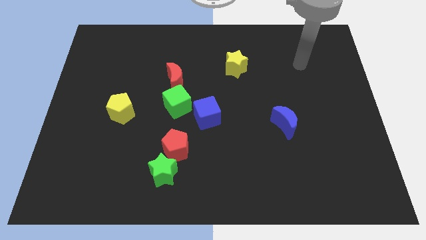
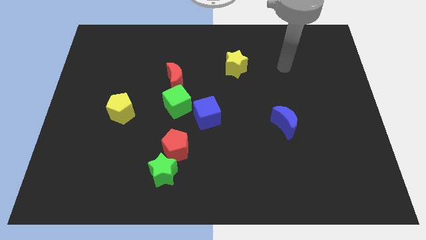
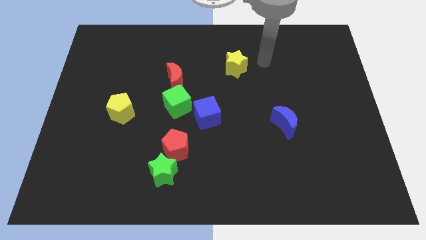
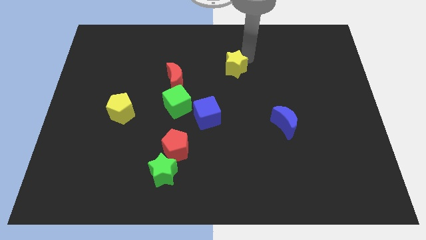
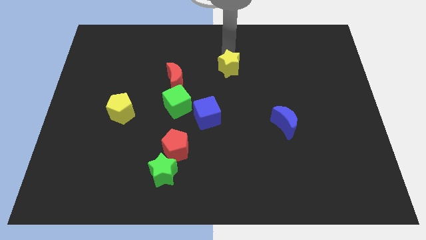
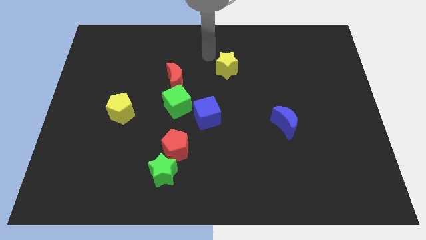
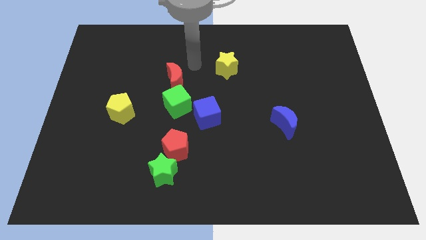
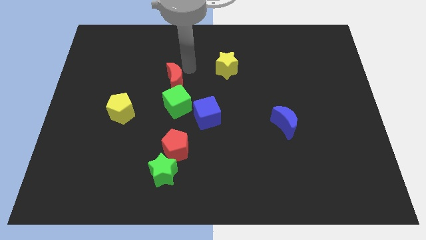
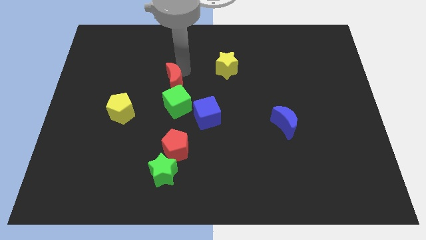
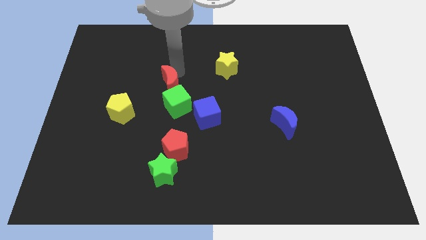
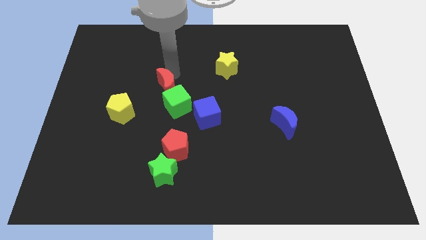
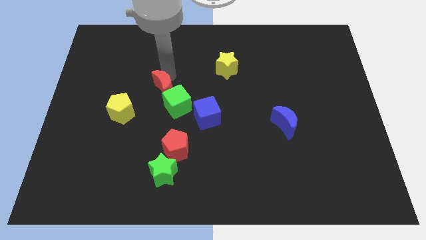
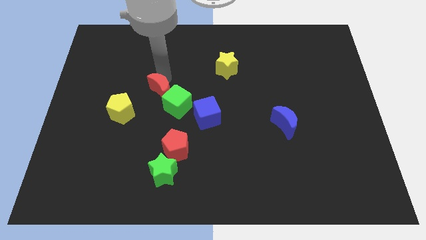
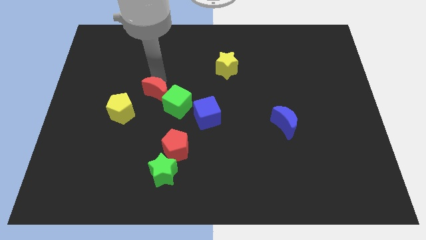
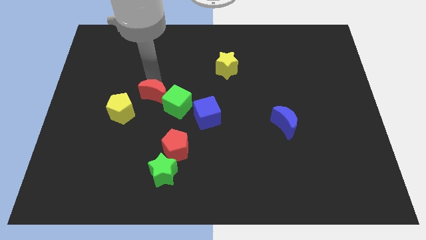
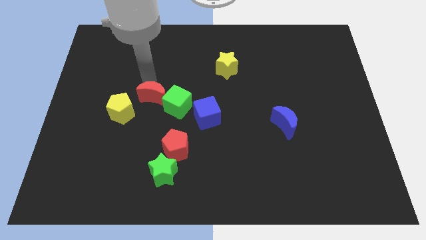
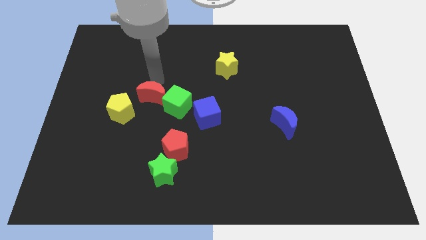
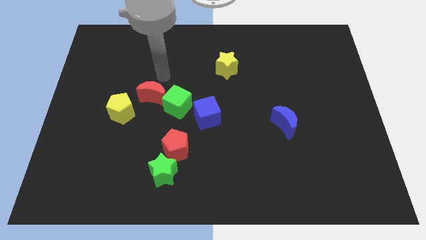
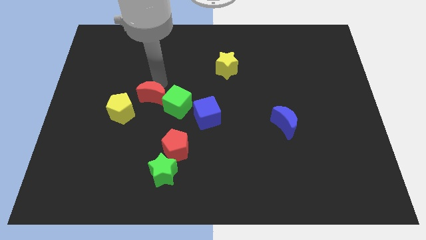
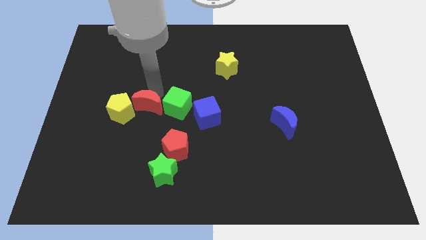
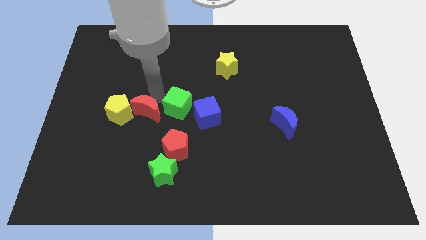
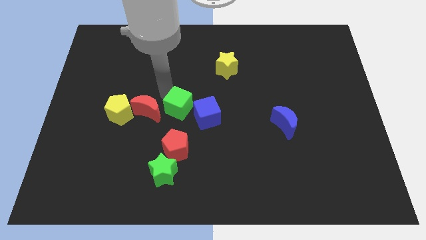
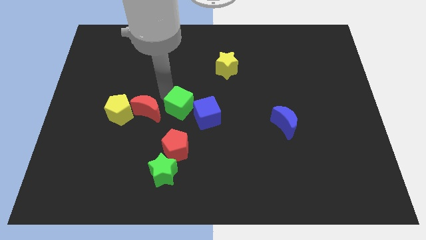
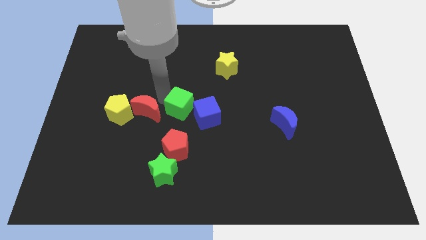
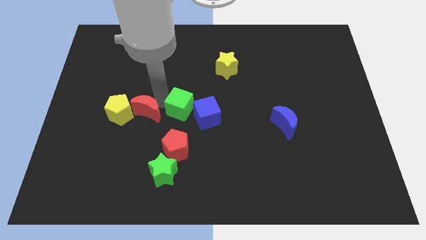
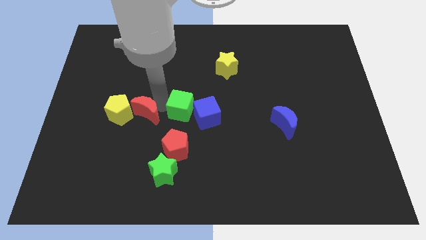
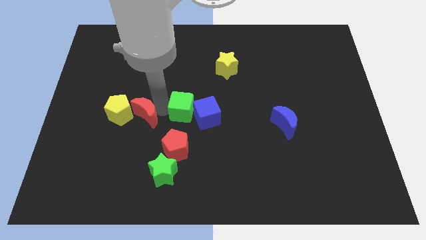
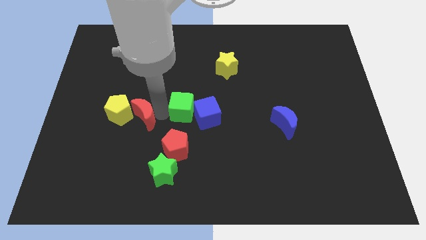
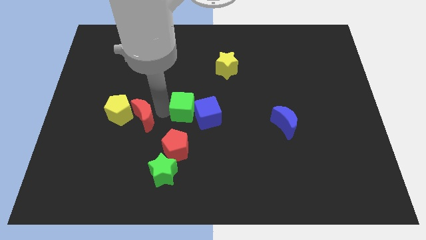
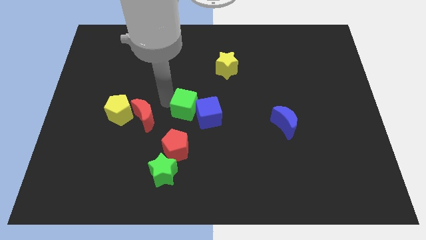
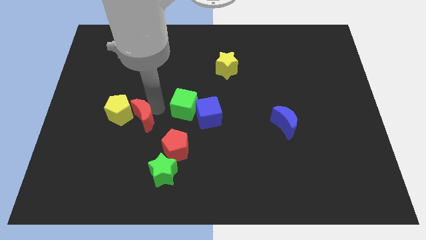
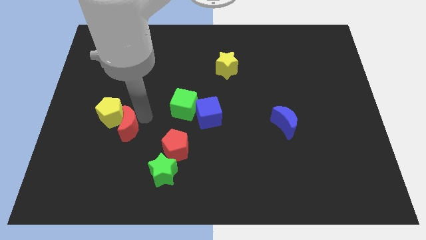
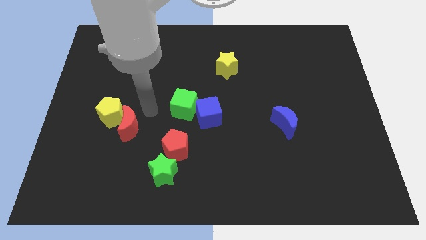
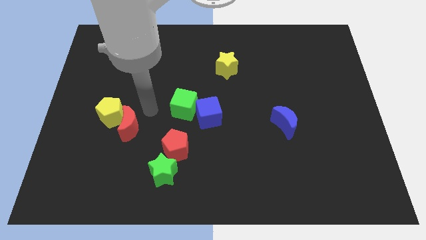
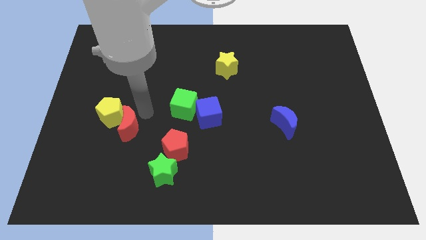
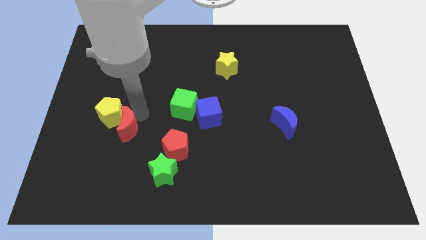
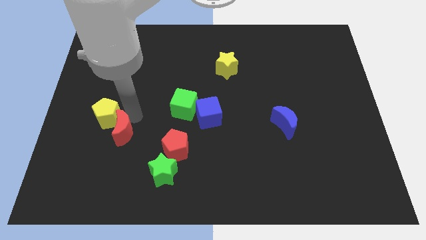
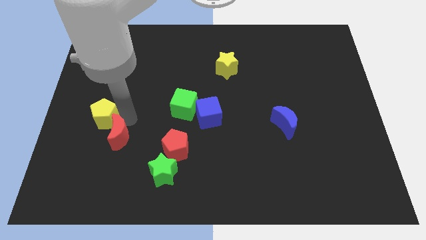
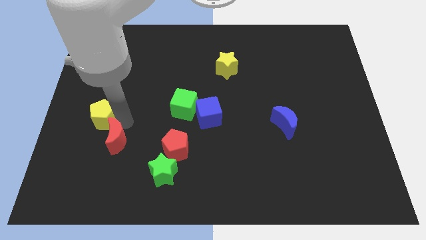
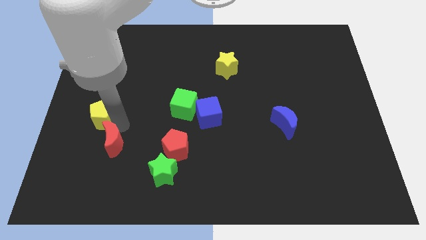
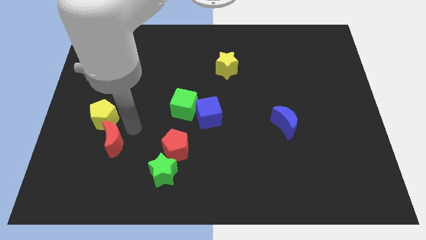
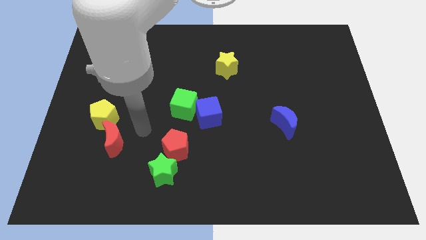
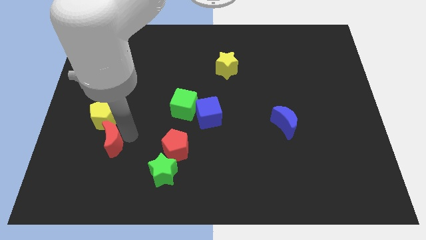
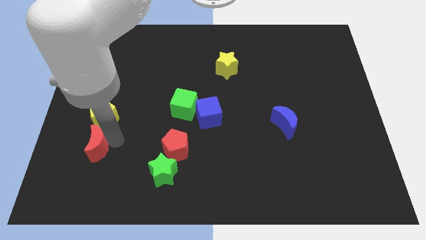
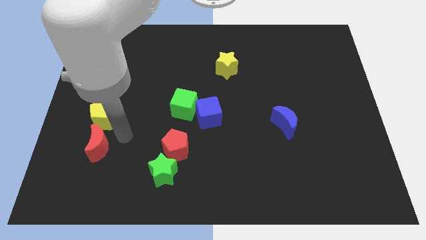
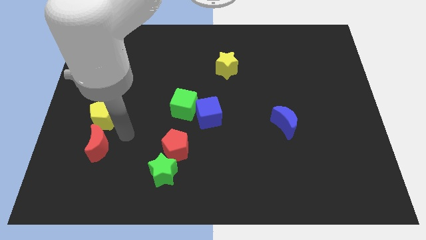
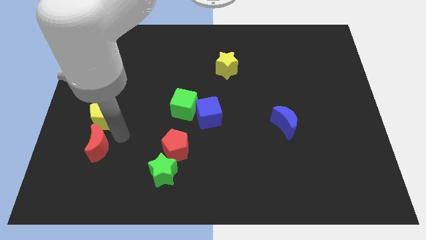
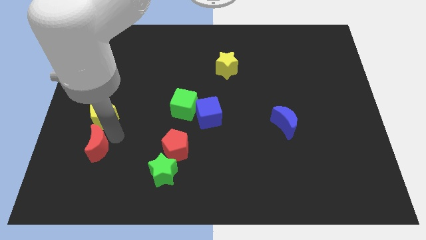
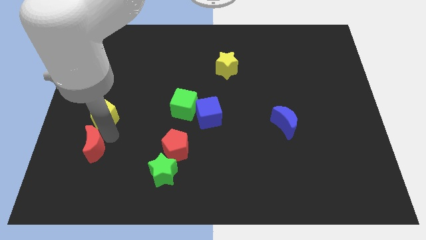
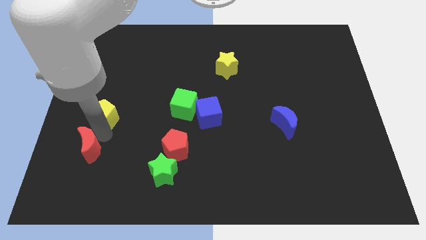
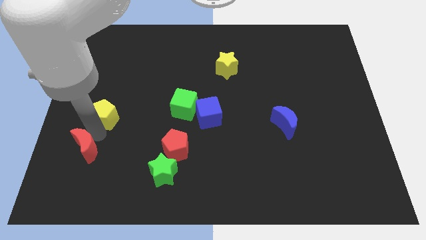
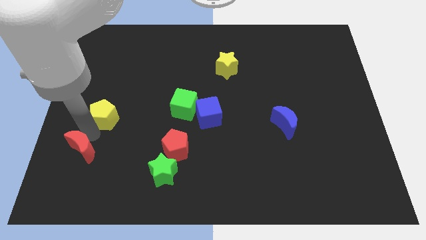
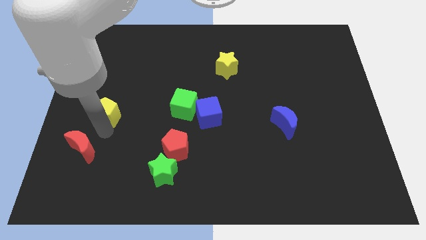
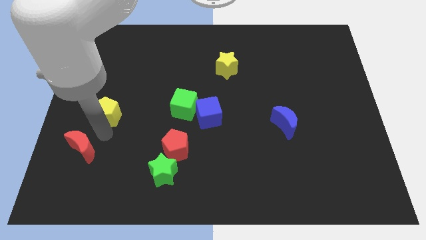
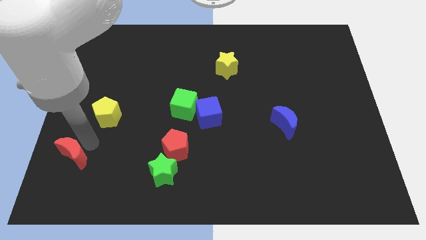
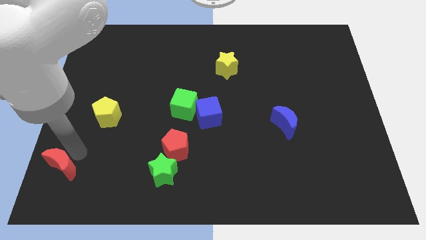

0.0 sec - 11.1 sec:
put the red moon to the bottom left of the board

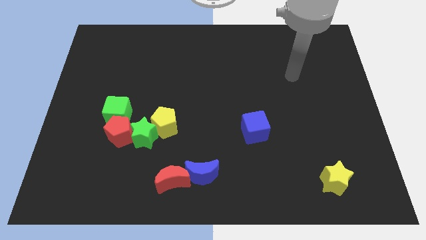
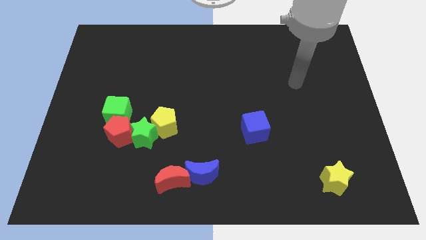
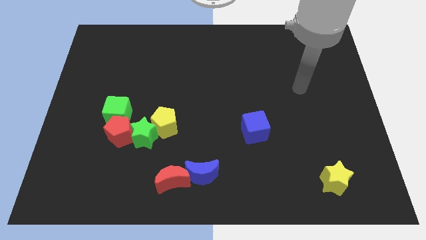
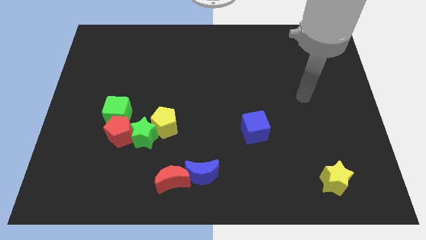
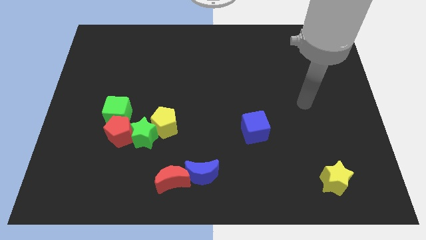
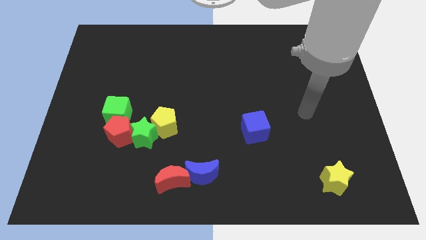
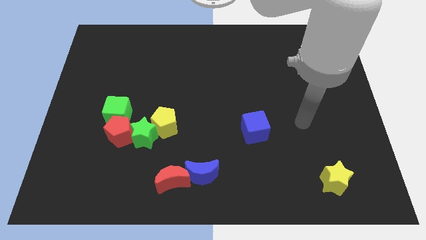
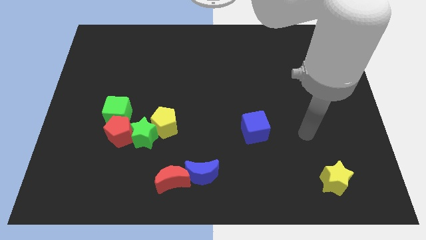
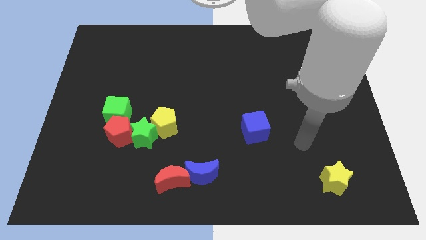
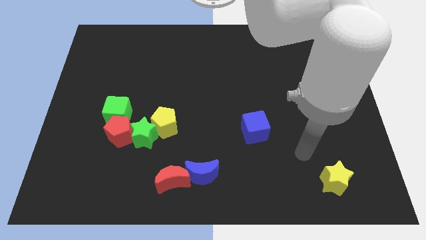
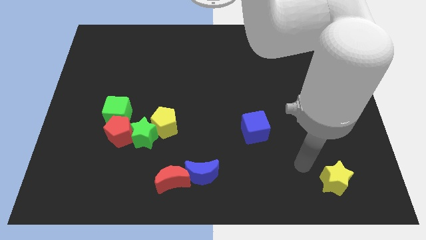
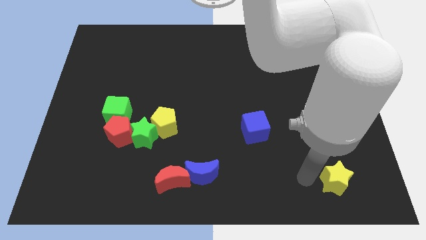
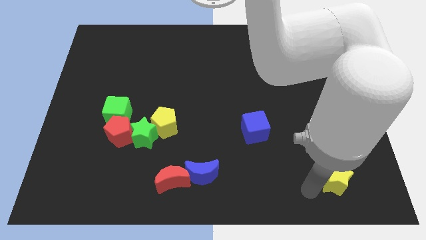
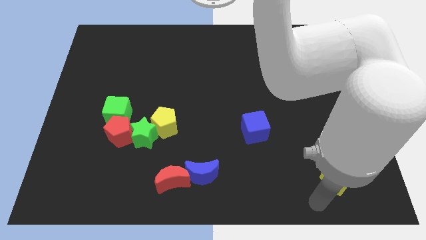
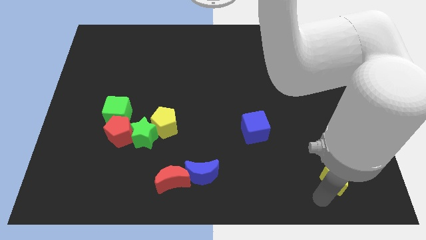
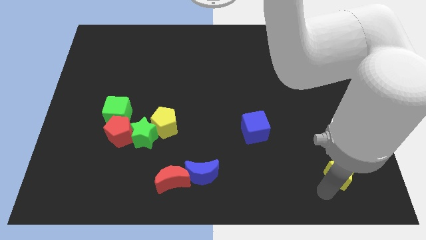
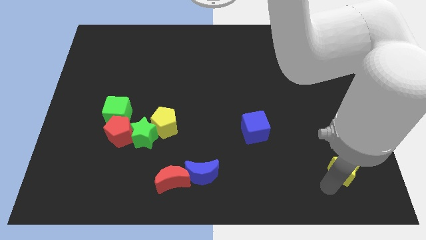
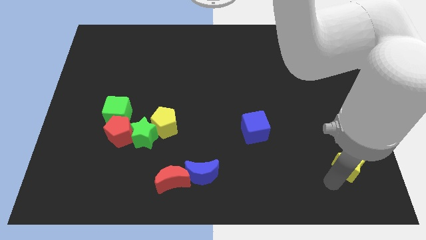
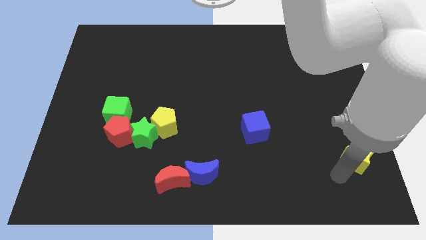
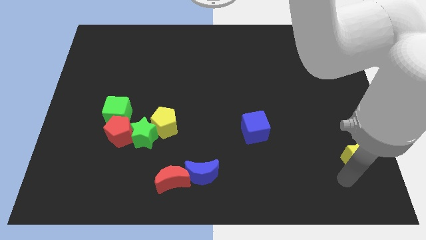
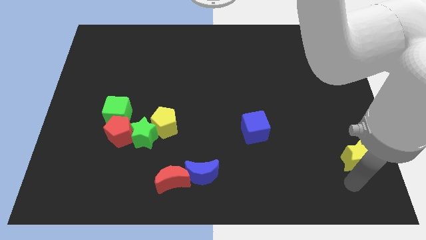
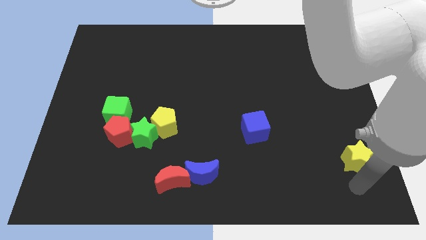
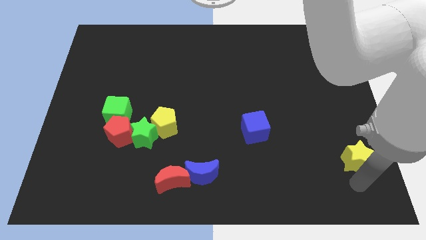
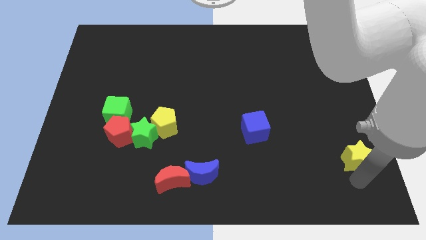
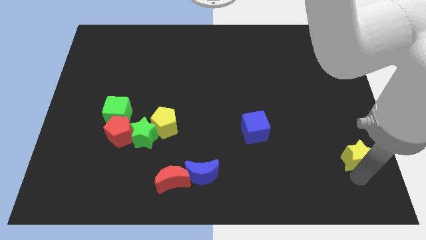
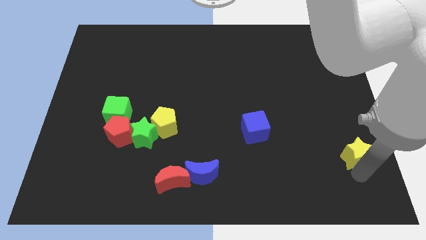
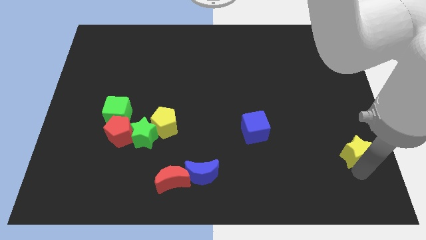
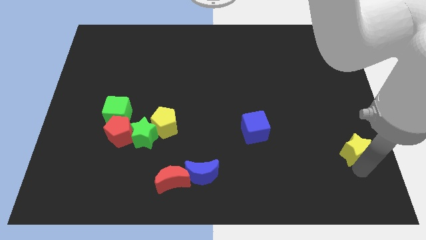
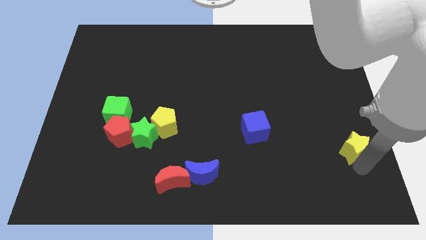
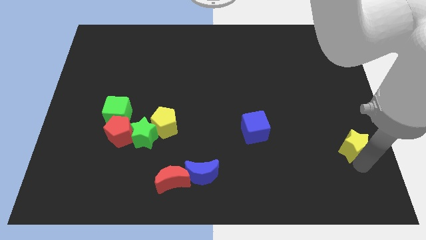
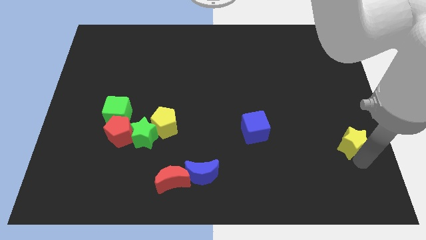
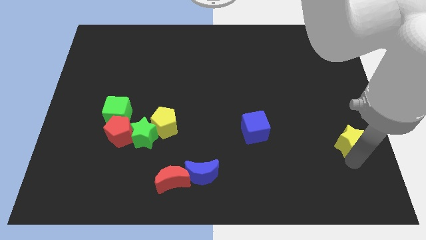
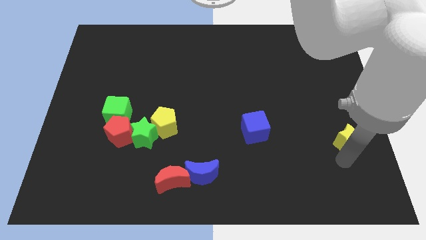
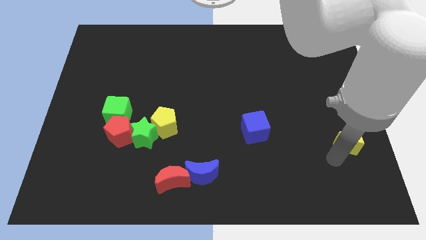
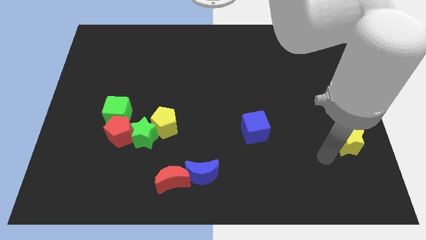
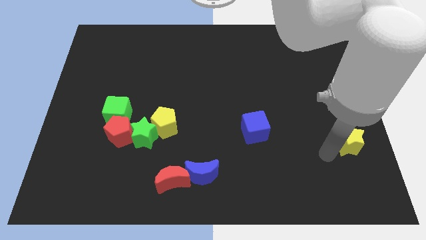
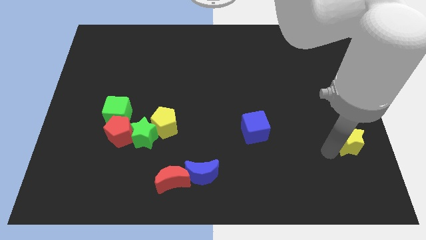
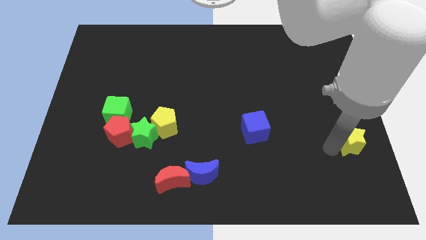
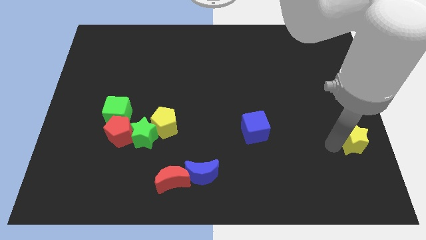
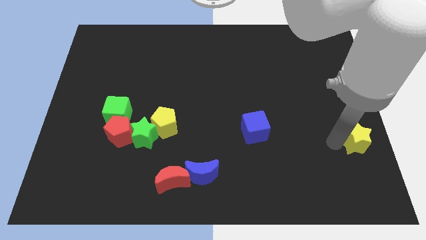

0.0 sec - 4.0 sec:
push the yellow star to the center right
